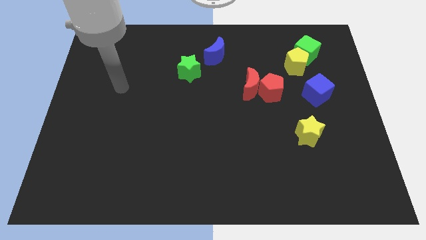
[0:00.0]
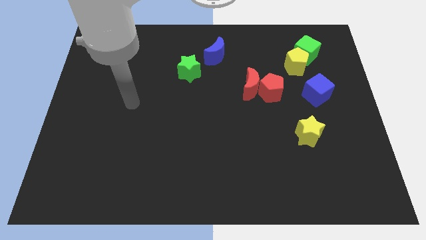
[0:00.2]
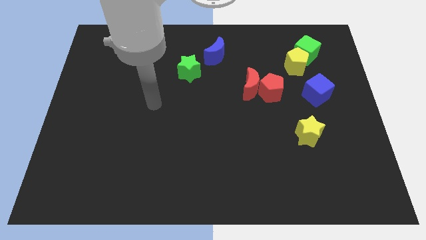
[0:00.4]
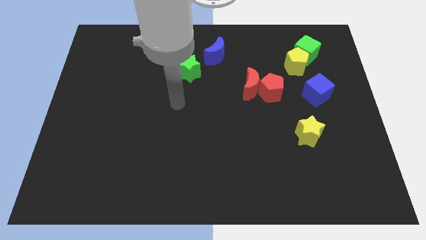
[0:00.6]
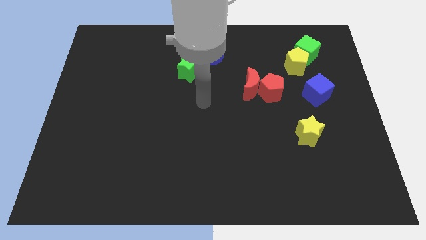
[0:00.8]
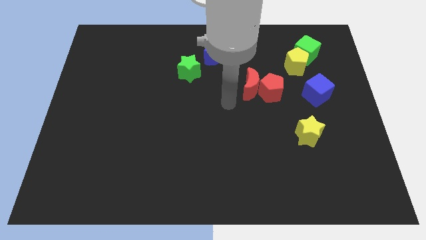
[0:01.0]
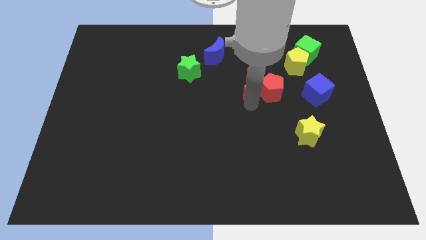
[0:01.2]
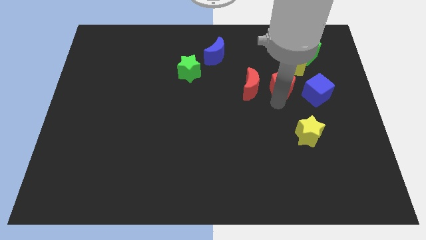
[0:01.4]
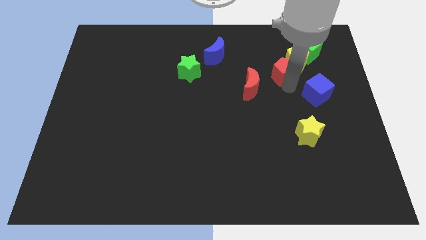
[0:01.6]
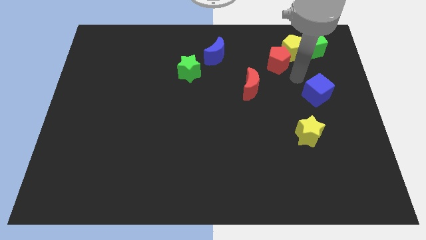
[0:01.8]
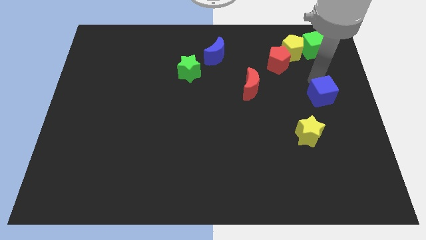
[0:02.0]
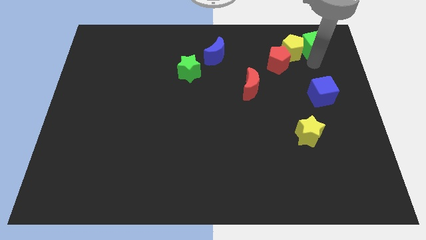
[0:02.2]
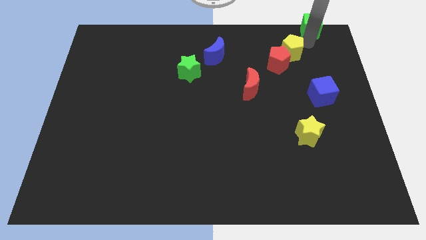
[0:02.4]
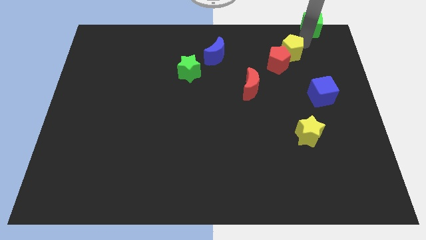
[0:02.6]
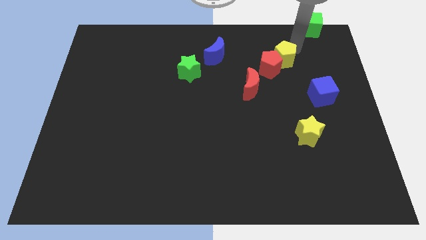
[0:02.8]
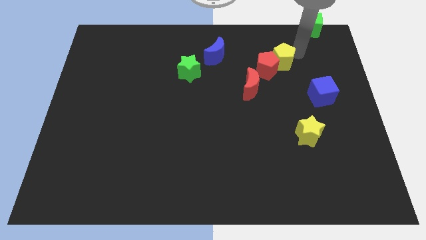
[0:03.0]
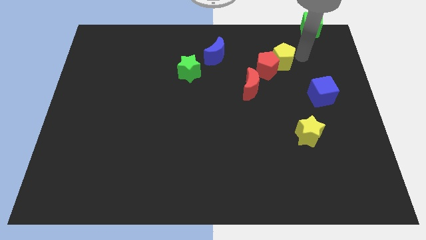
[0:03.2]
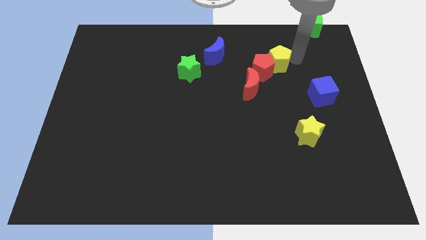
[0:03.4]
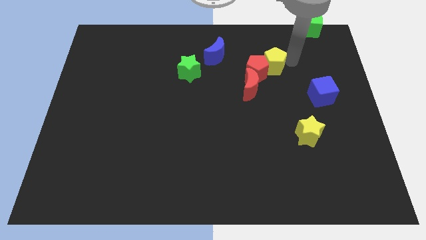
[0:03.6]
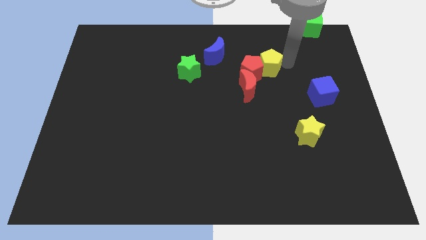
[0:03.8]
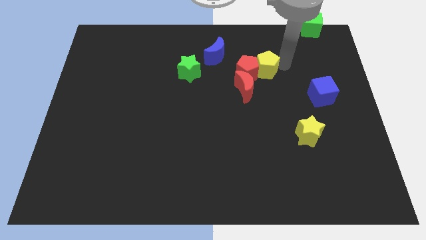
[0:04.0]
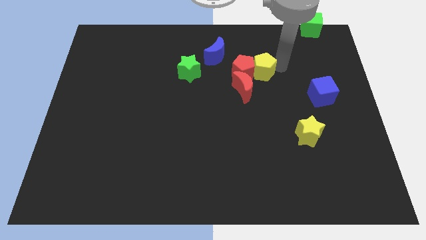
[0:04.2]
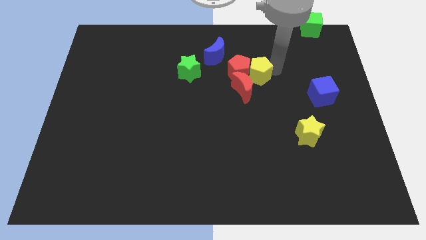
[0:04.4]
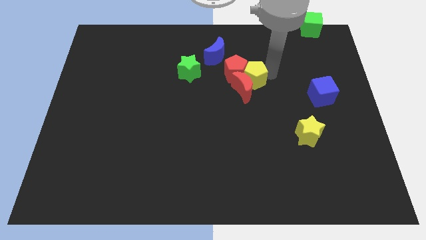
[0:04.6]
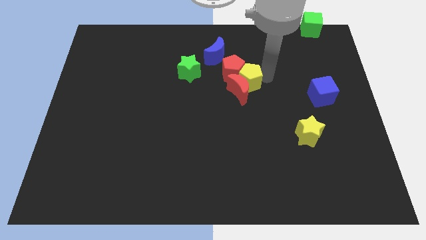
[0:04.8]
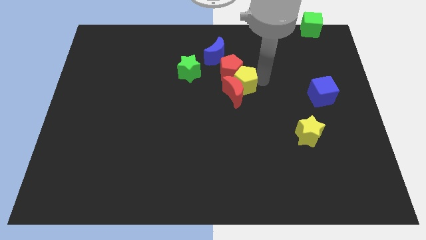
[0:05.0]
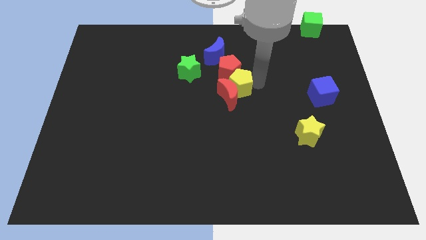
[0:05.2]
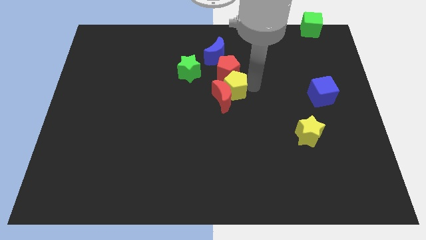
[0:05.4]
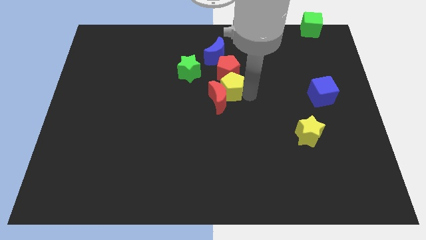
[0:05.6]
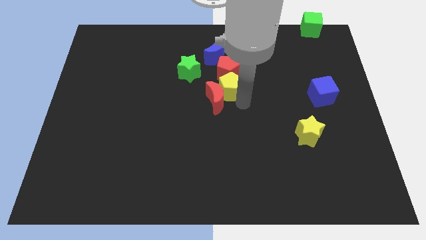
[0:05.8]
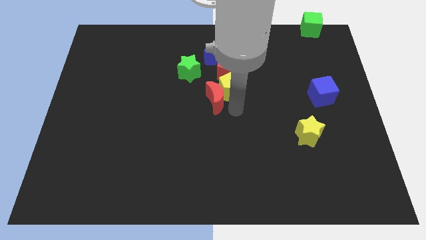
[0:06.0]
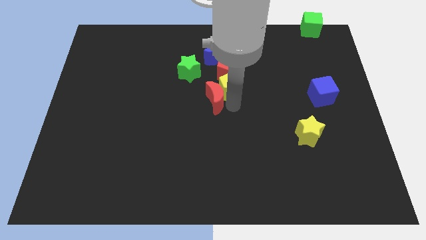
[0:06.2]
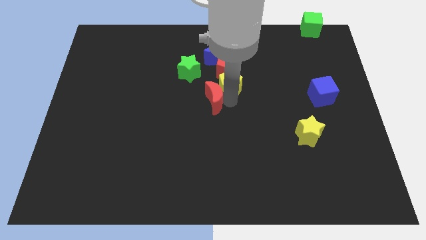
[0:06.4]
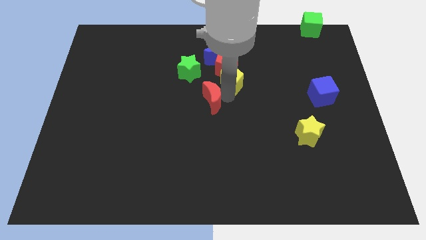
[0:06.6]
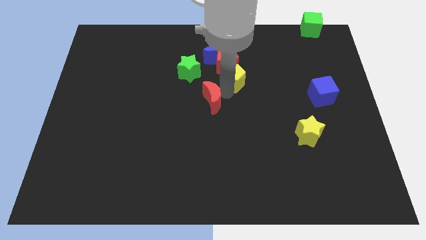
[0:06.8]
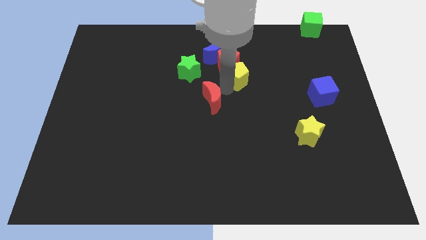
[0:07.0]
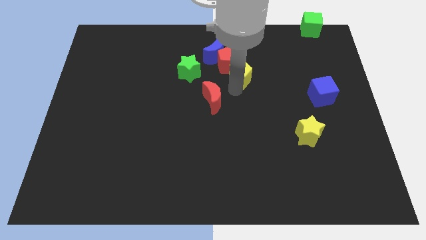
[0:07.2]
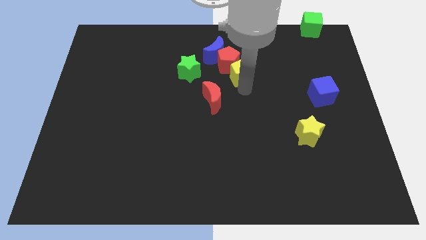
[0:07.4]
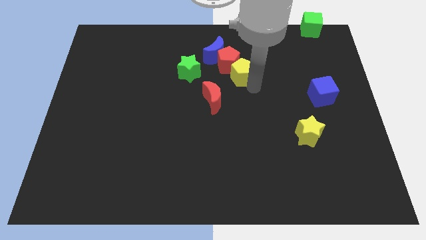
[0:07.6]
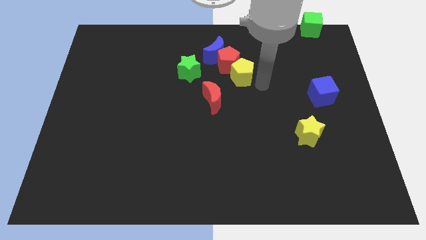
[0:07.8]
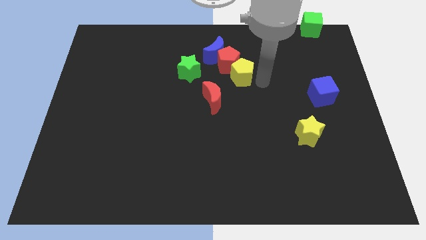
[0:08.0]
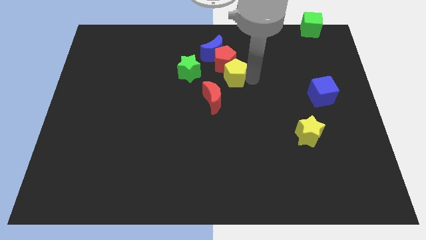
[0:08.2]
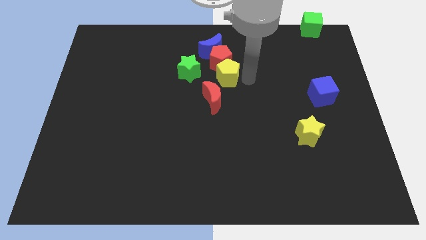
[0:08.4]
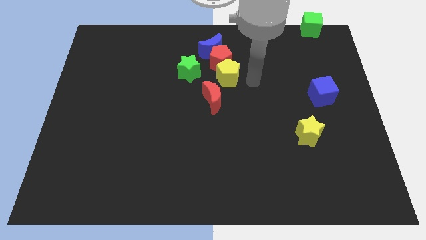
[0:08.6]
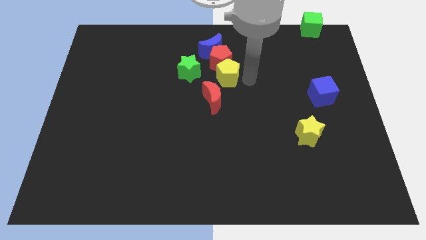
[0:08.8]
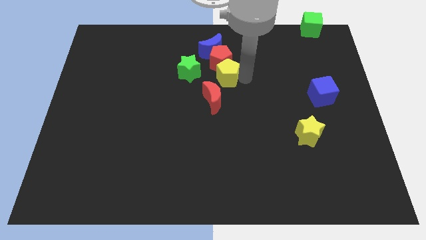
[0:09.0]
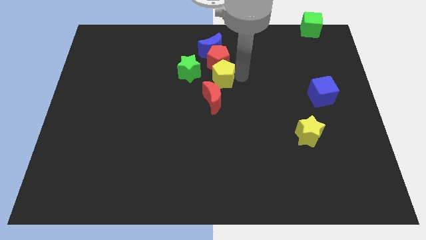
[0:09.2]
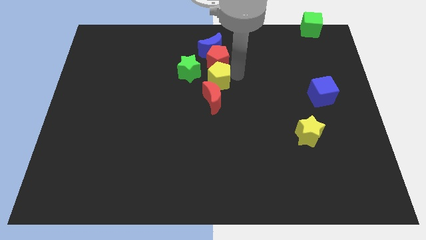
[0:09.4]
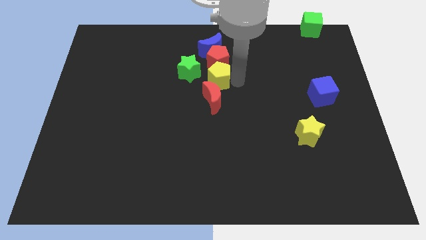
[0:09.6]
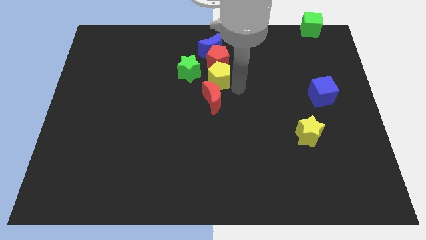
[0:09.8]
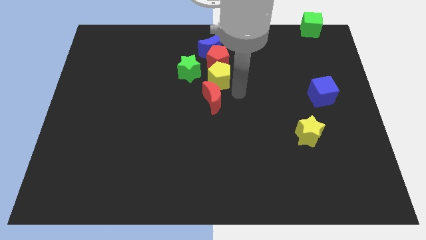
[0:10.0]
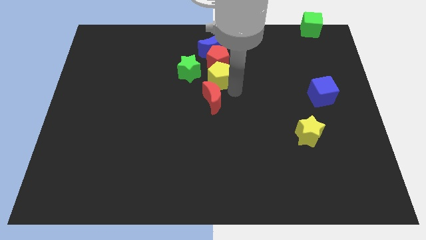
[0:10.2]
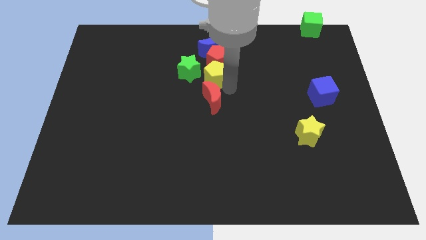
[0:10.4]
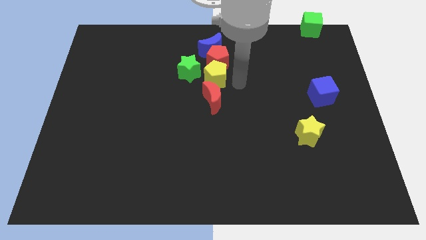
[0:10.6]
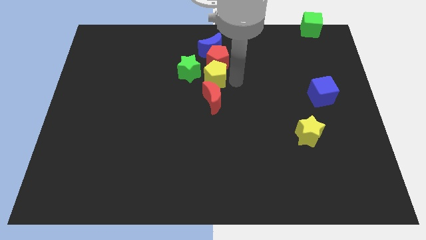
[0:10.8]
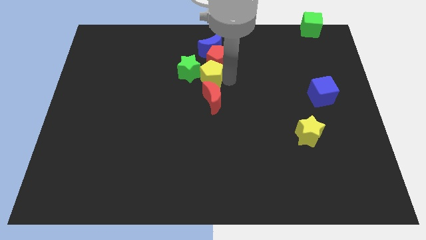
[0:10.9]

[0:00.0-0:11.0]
slide the yellow pentagon next to the green star

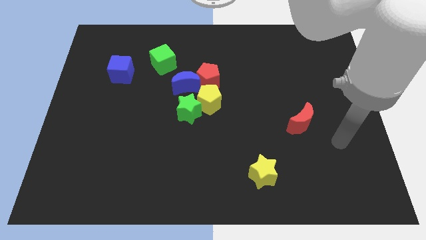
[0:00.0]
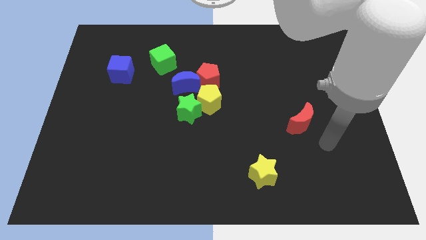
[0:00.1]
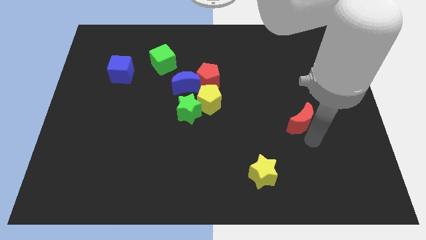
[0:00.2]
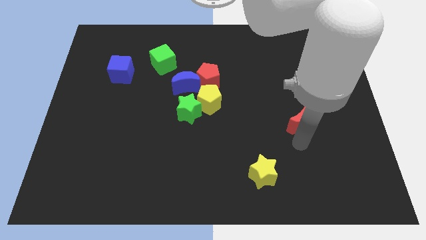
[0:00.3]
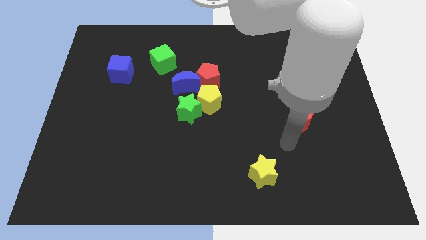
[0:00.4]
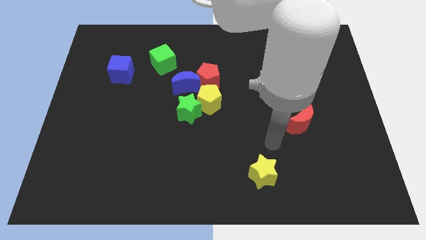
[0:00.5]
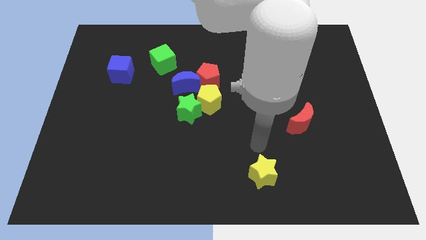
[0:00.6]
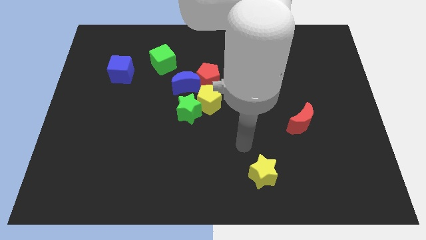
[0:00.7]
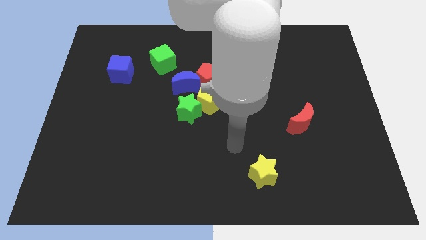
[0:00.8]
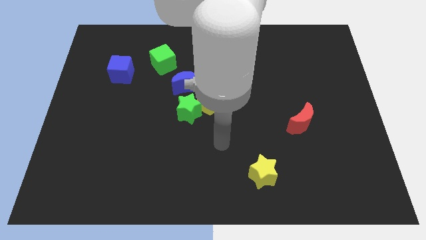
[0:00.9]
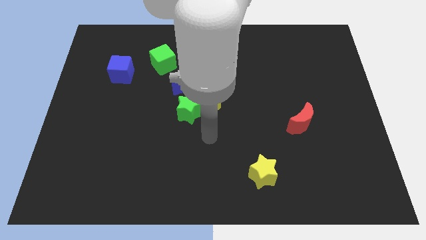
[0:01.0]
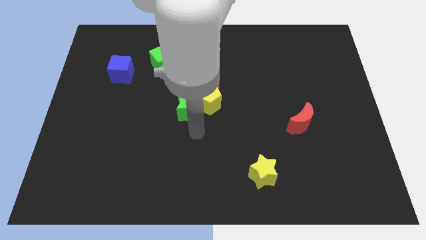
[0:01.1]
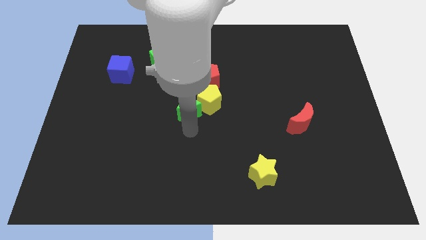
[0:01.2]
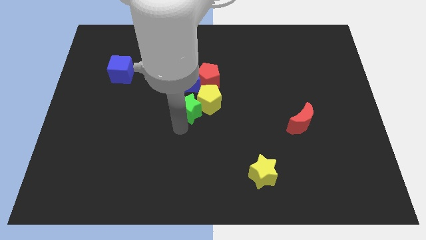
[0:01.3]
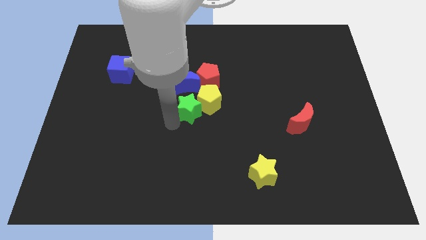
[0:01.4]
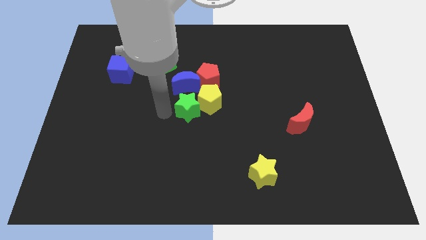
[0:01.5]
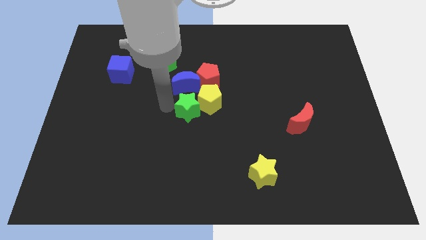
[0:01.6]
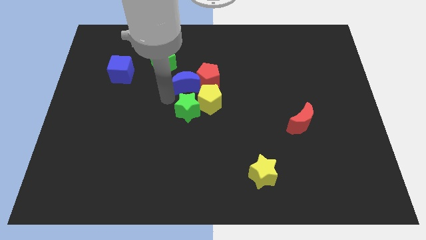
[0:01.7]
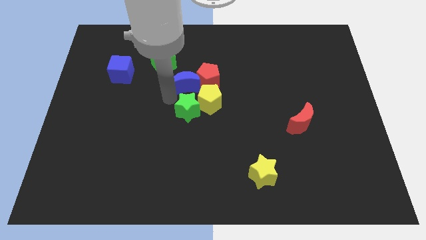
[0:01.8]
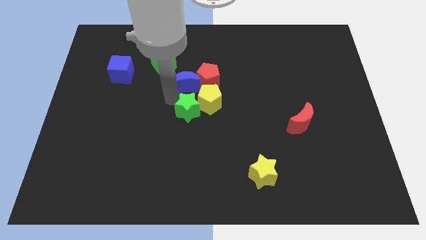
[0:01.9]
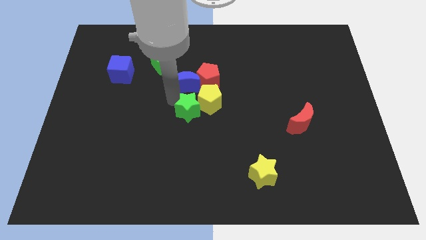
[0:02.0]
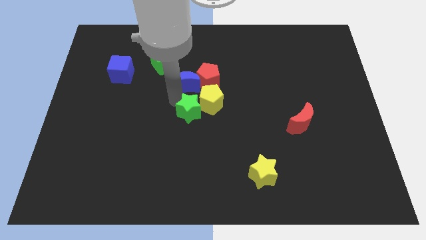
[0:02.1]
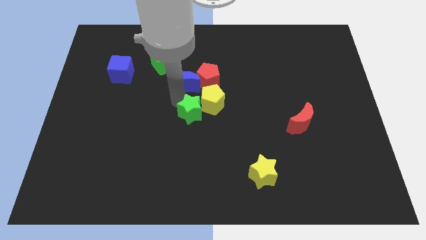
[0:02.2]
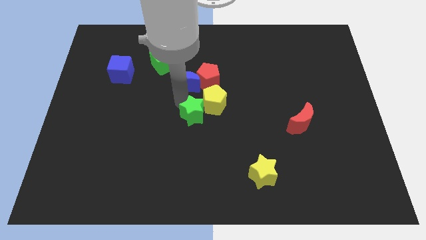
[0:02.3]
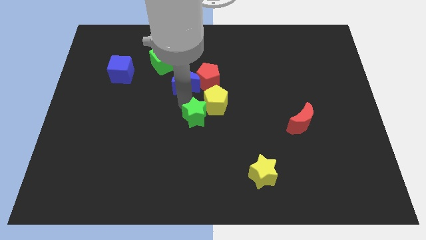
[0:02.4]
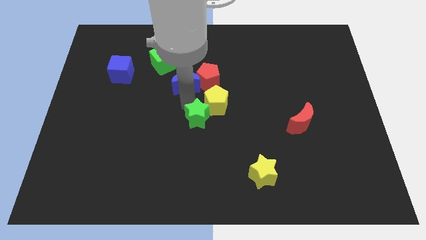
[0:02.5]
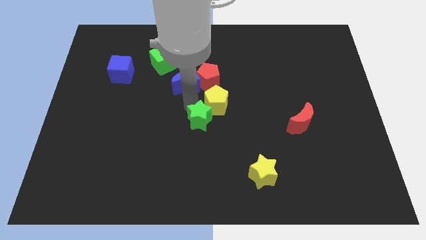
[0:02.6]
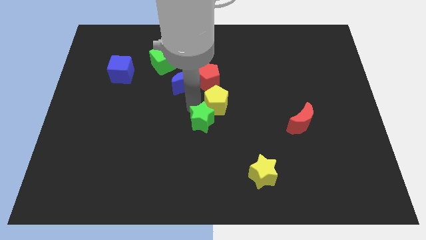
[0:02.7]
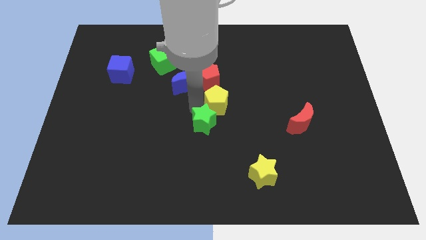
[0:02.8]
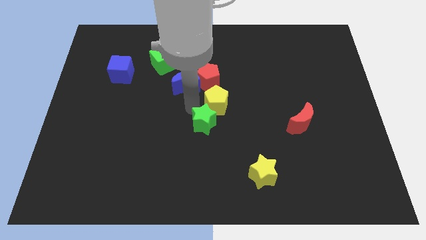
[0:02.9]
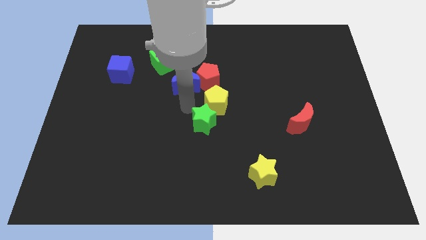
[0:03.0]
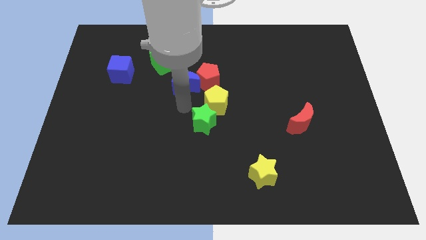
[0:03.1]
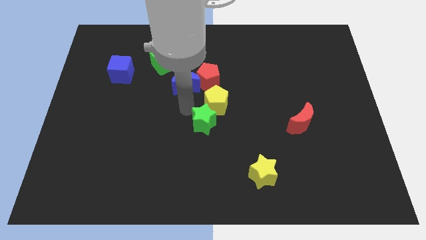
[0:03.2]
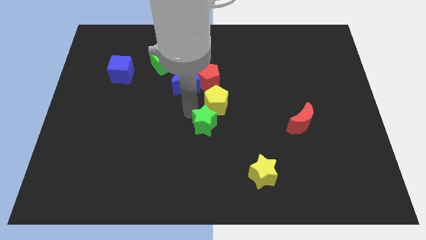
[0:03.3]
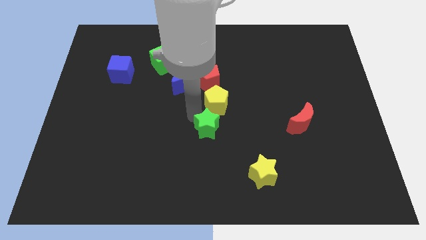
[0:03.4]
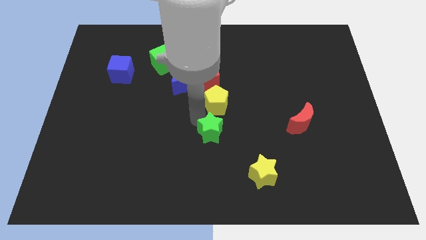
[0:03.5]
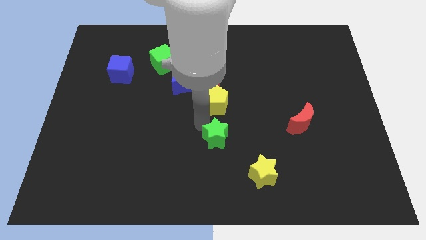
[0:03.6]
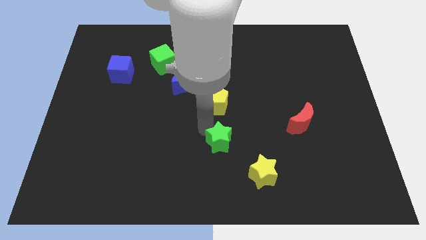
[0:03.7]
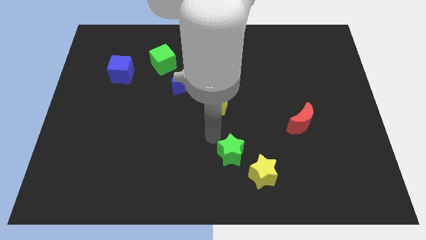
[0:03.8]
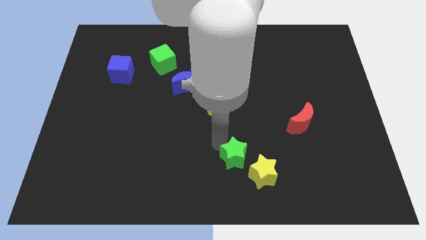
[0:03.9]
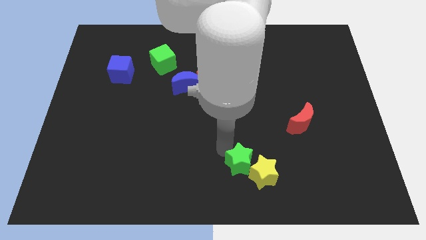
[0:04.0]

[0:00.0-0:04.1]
move the green star next to the yellow star
